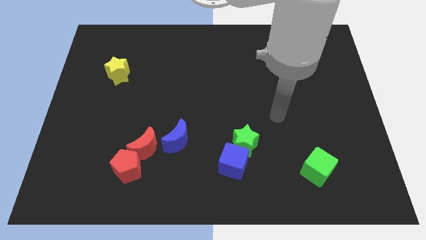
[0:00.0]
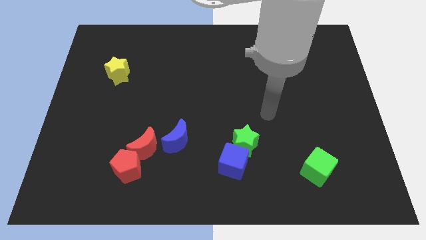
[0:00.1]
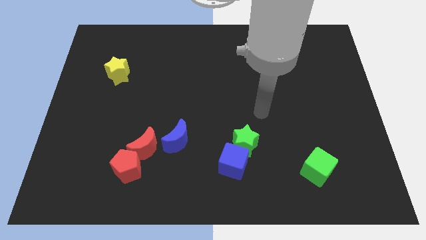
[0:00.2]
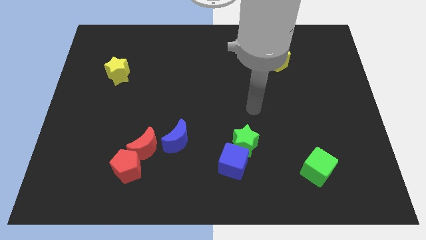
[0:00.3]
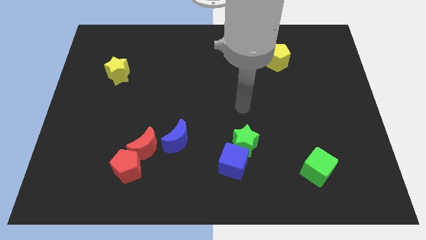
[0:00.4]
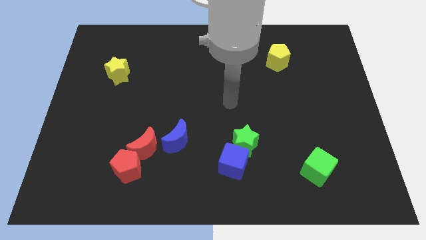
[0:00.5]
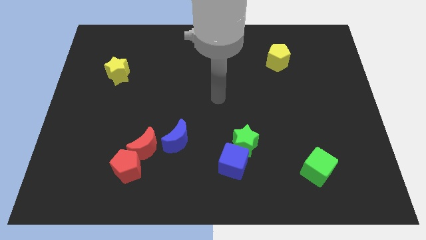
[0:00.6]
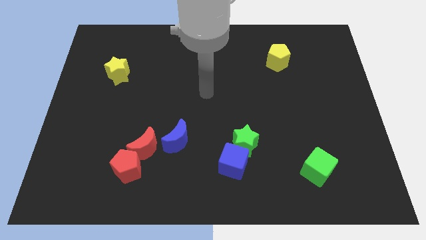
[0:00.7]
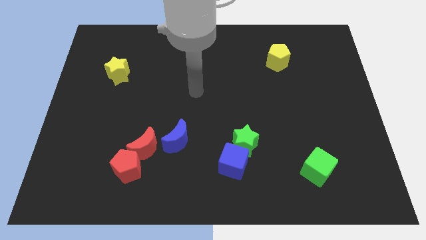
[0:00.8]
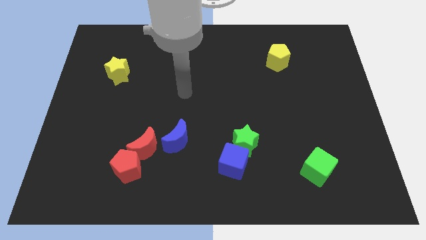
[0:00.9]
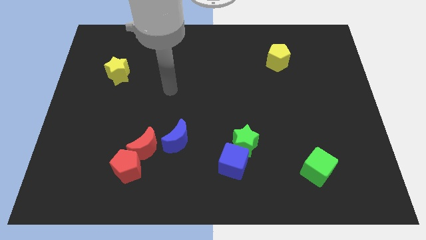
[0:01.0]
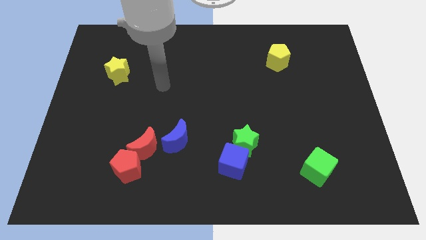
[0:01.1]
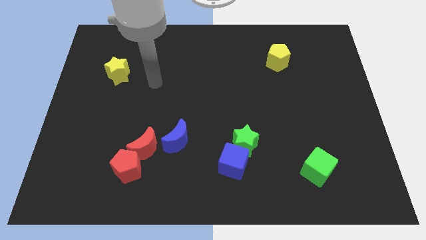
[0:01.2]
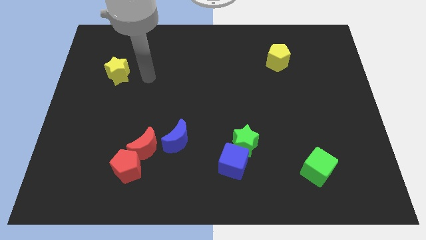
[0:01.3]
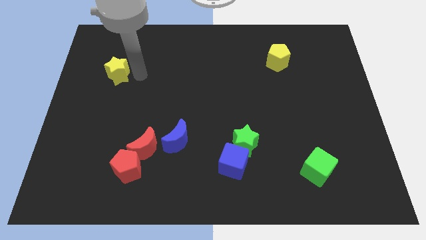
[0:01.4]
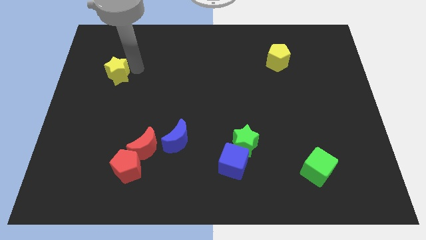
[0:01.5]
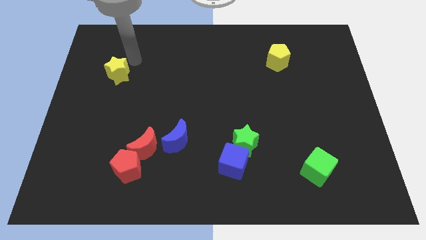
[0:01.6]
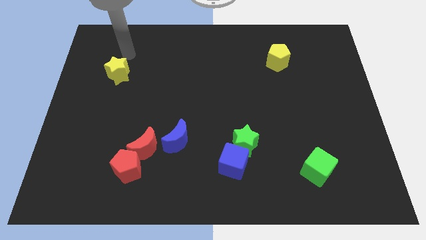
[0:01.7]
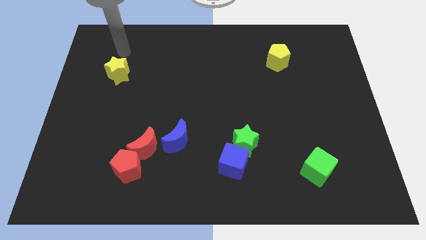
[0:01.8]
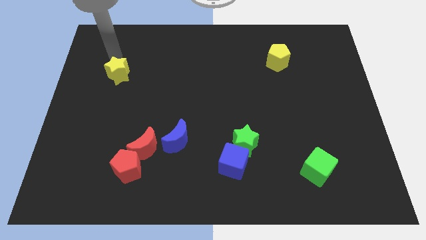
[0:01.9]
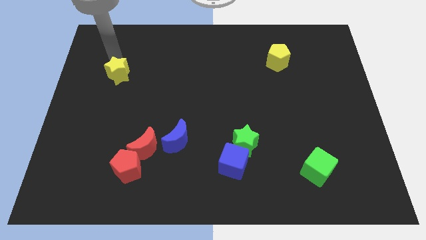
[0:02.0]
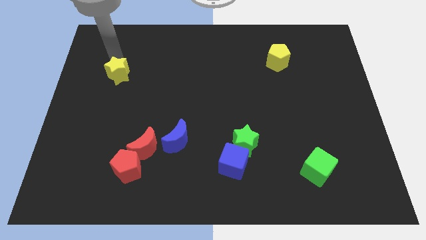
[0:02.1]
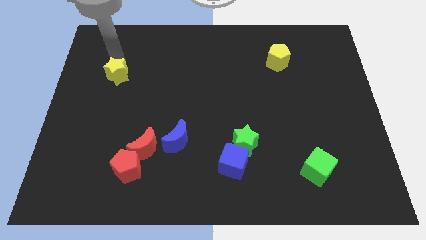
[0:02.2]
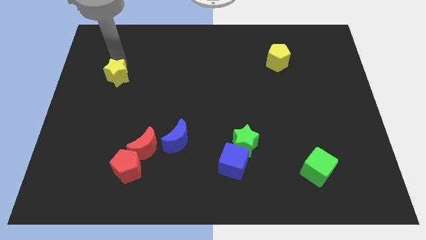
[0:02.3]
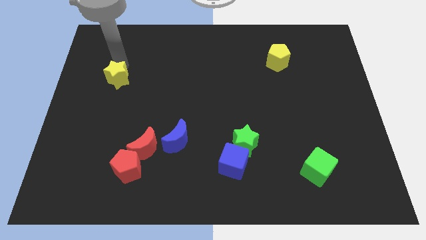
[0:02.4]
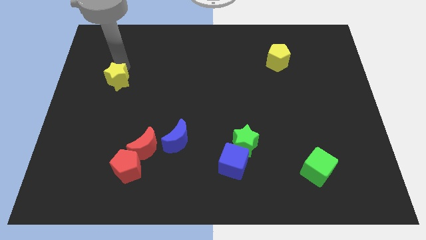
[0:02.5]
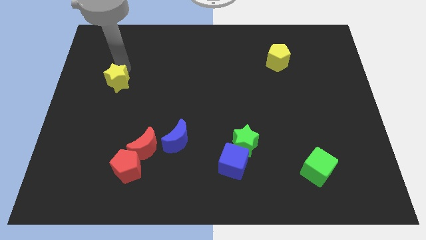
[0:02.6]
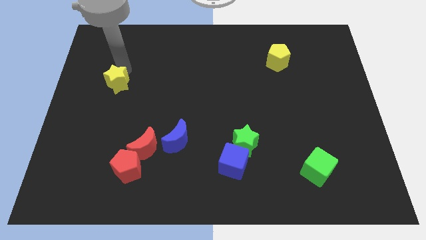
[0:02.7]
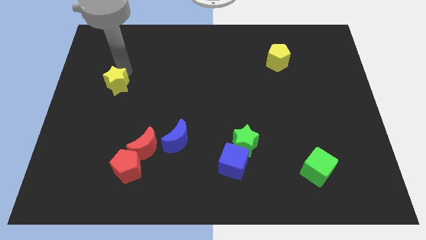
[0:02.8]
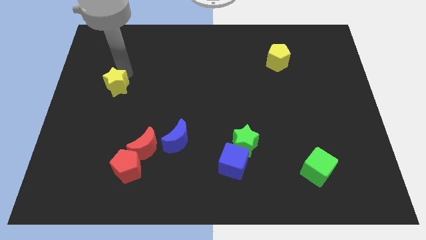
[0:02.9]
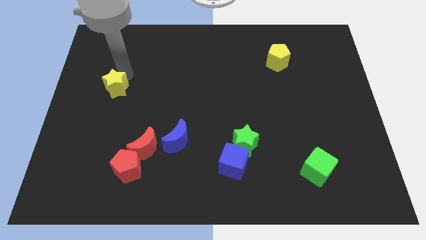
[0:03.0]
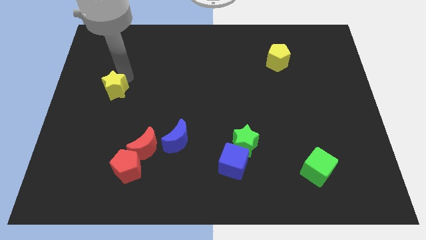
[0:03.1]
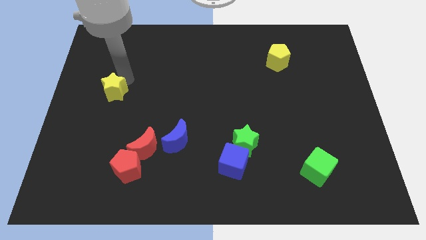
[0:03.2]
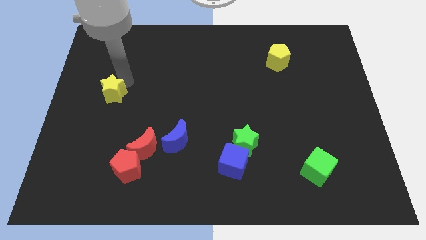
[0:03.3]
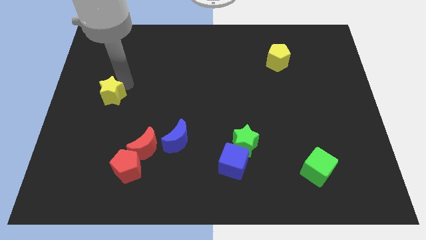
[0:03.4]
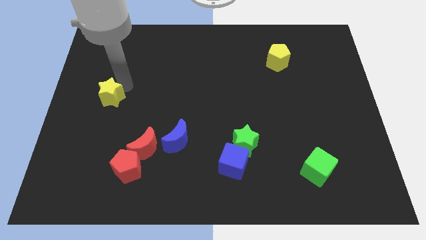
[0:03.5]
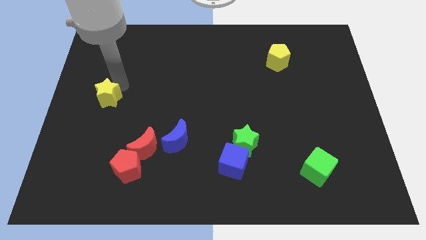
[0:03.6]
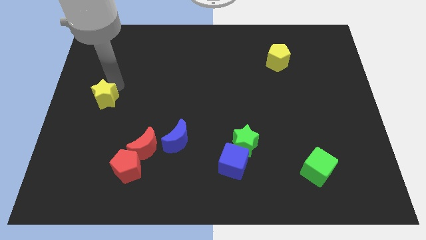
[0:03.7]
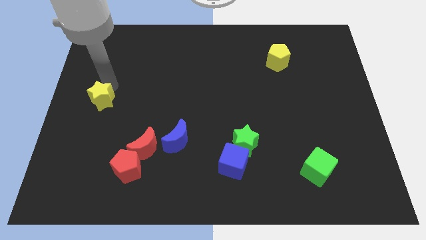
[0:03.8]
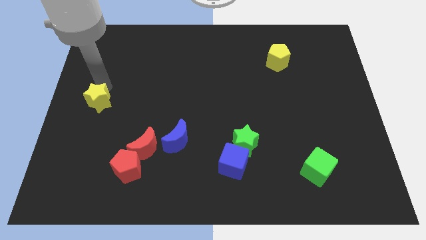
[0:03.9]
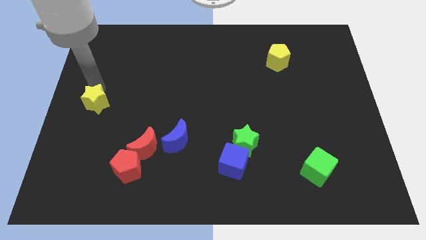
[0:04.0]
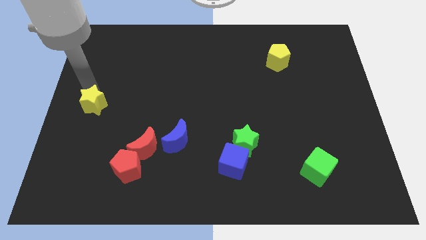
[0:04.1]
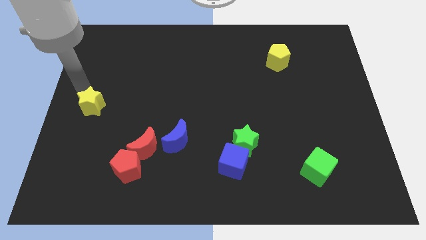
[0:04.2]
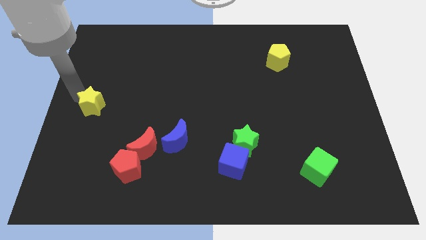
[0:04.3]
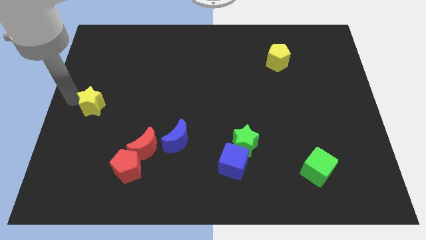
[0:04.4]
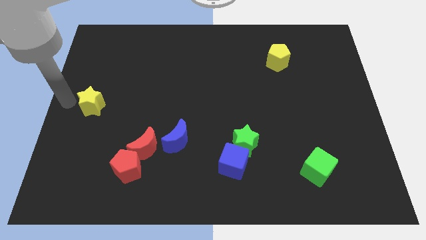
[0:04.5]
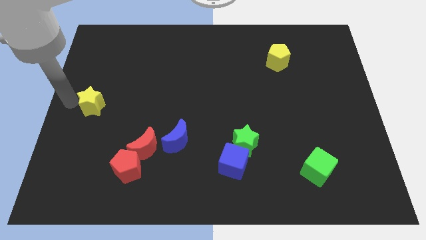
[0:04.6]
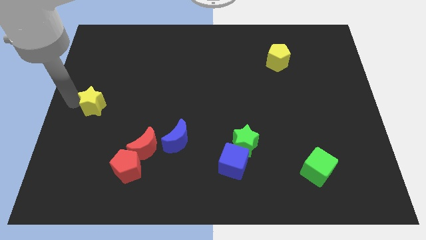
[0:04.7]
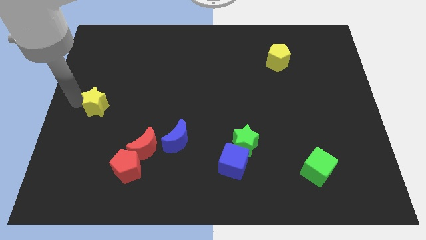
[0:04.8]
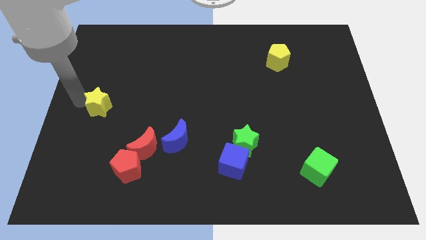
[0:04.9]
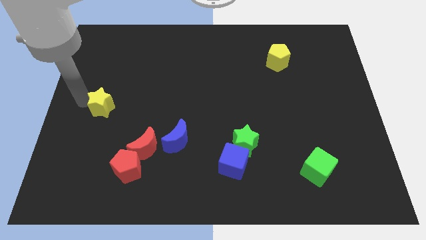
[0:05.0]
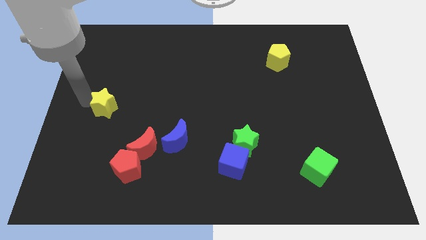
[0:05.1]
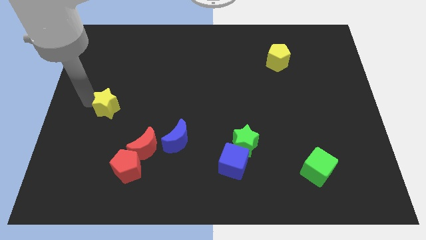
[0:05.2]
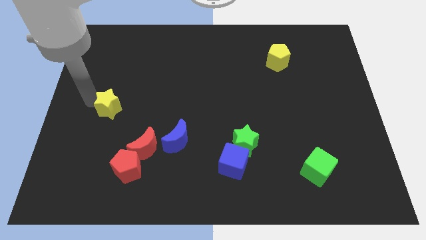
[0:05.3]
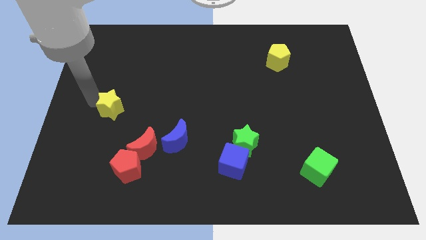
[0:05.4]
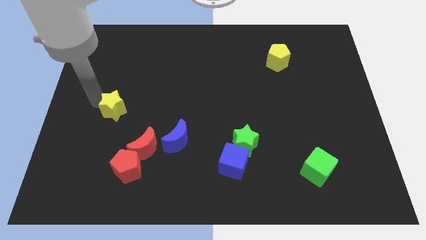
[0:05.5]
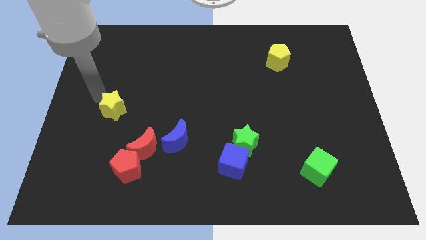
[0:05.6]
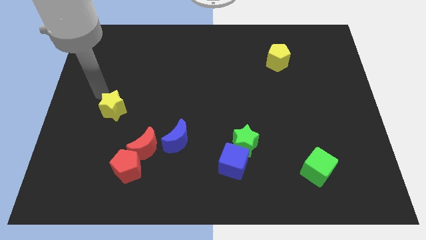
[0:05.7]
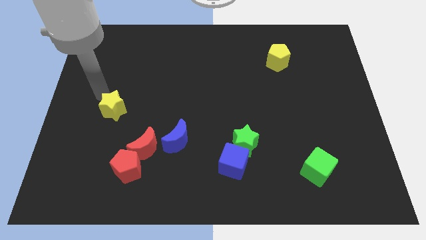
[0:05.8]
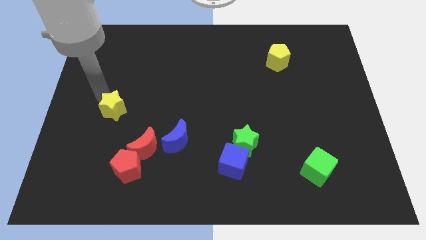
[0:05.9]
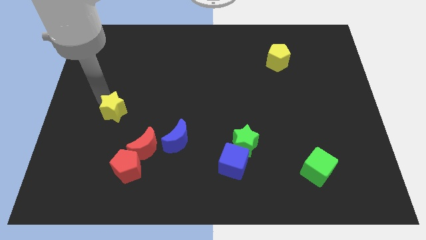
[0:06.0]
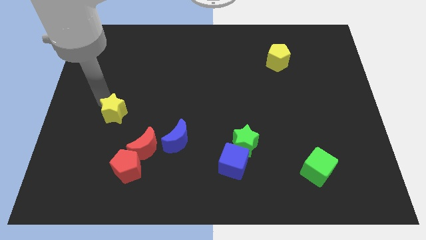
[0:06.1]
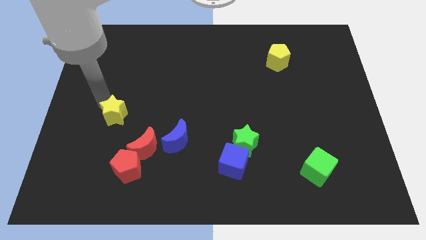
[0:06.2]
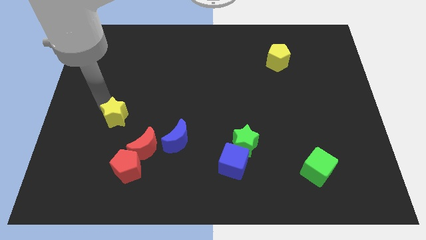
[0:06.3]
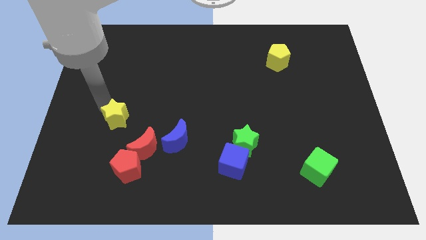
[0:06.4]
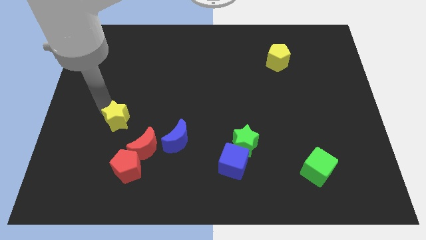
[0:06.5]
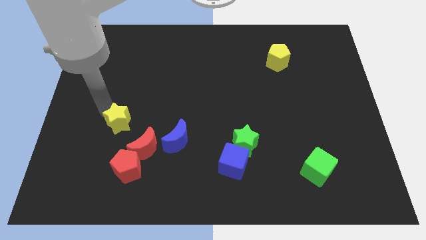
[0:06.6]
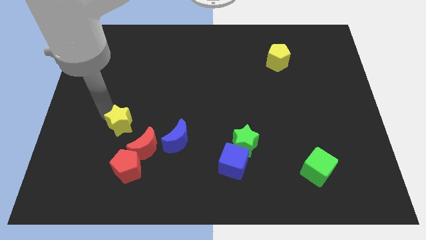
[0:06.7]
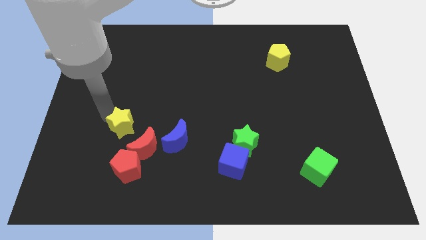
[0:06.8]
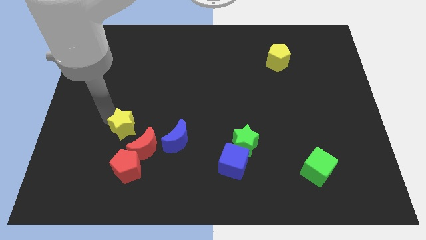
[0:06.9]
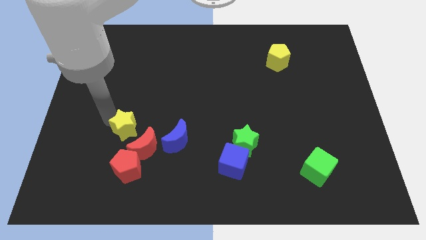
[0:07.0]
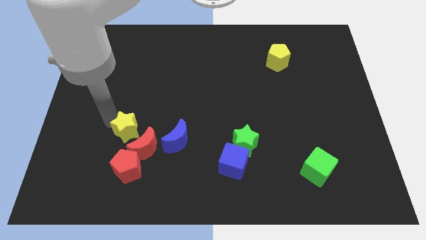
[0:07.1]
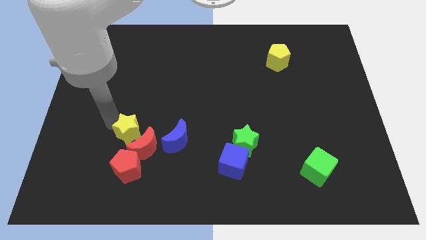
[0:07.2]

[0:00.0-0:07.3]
slide the yellow star close to the red moon

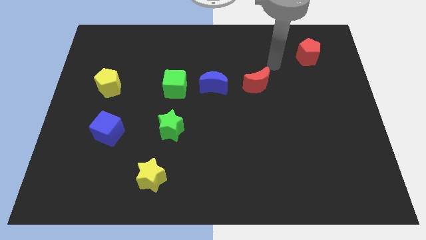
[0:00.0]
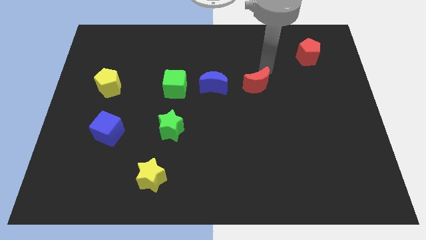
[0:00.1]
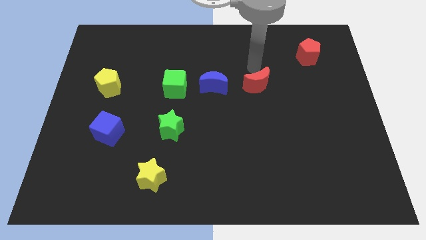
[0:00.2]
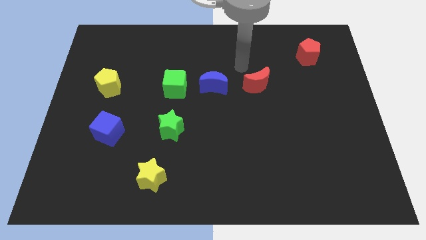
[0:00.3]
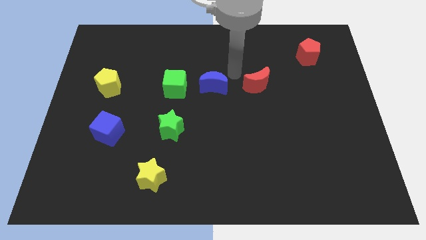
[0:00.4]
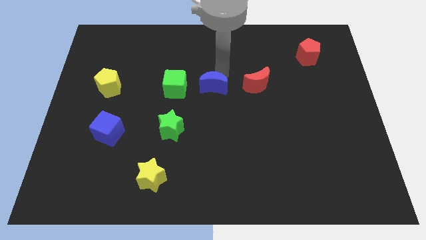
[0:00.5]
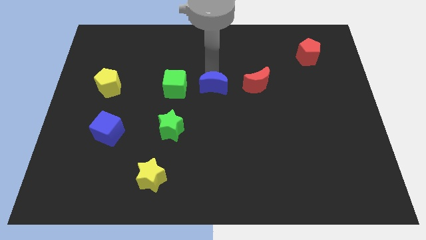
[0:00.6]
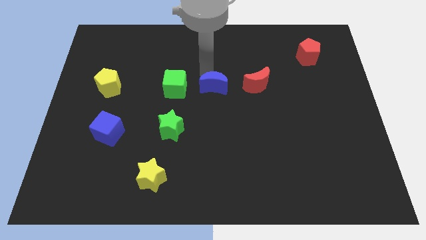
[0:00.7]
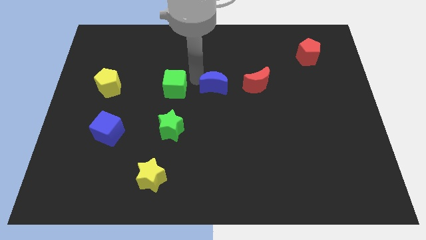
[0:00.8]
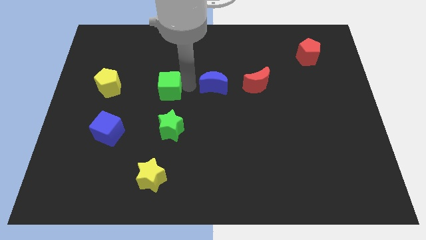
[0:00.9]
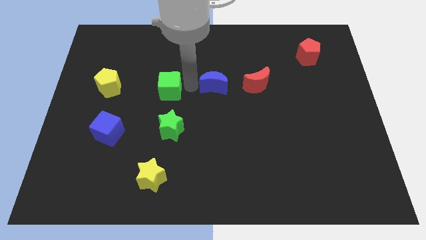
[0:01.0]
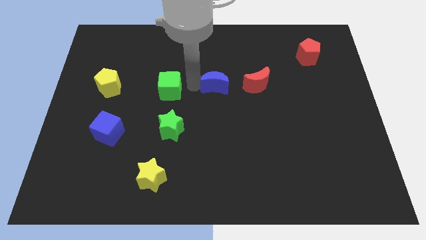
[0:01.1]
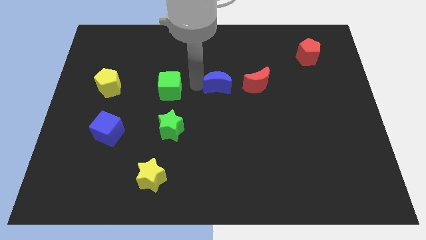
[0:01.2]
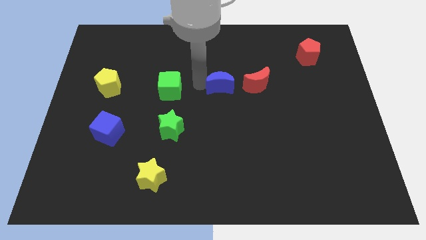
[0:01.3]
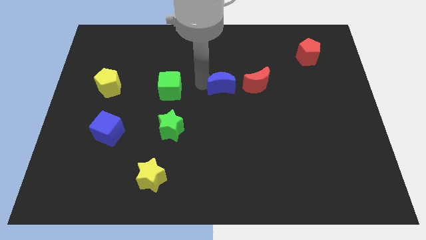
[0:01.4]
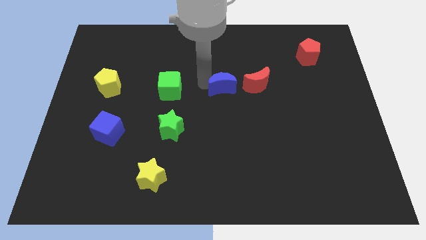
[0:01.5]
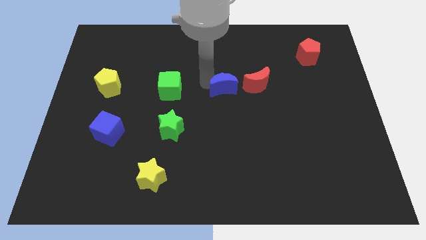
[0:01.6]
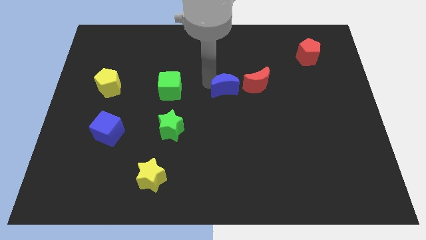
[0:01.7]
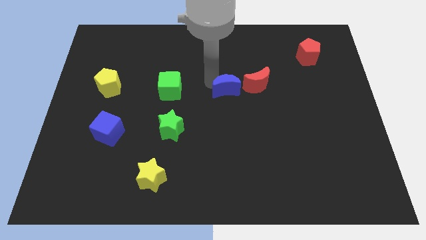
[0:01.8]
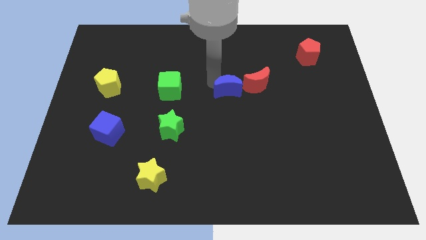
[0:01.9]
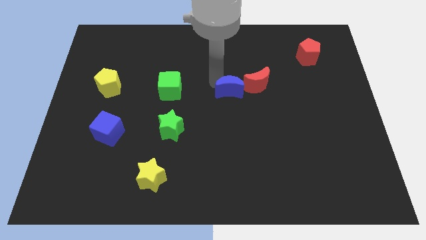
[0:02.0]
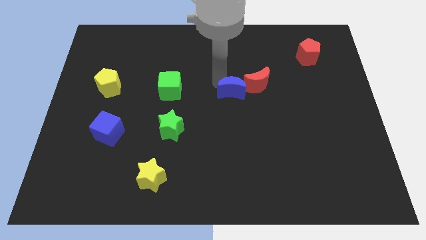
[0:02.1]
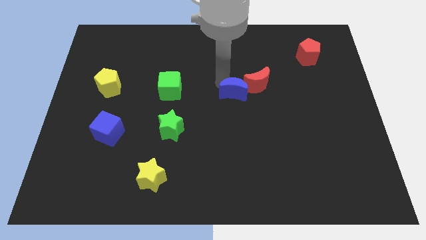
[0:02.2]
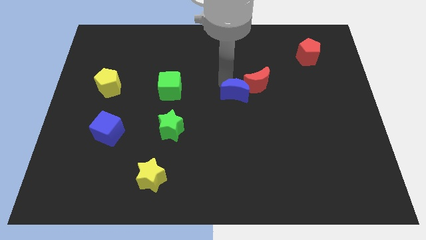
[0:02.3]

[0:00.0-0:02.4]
put the blue moon towards the red moon
